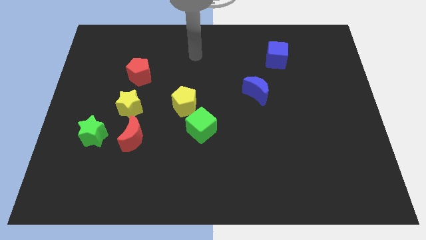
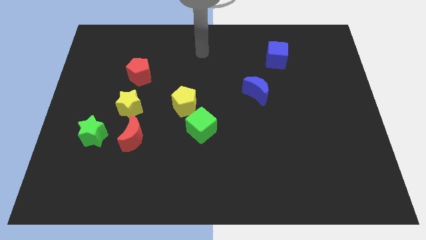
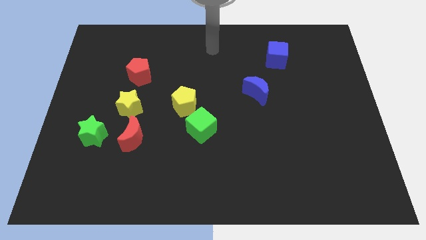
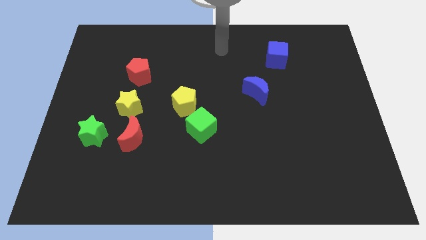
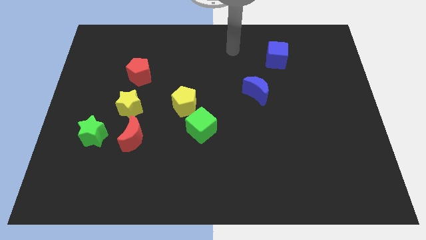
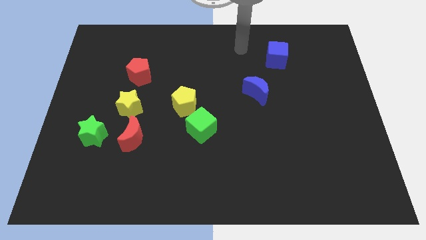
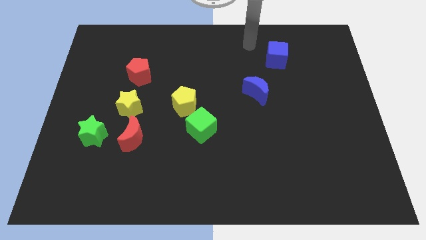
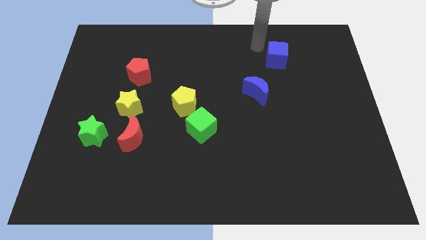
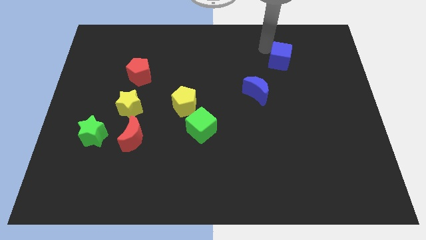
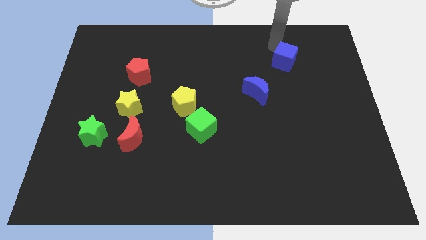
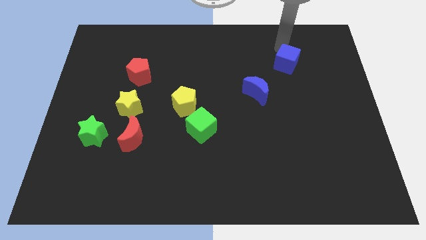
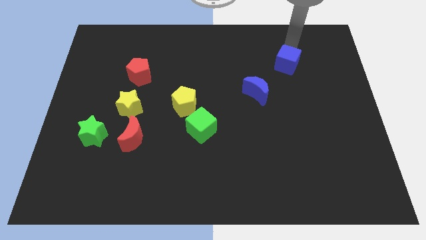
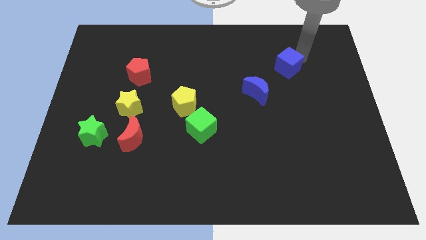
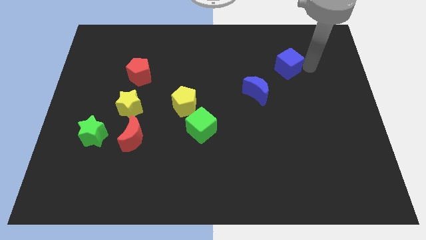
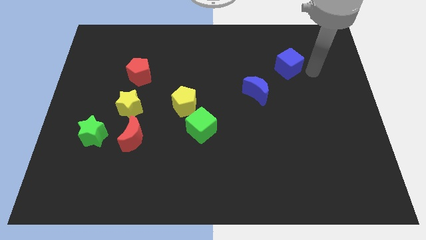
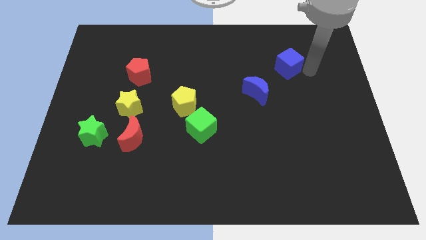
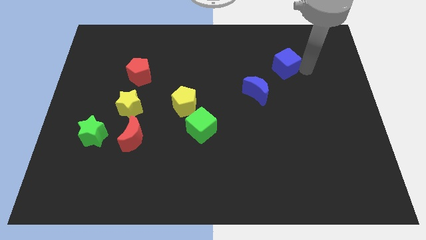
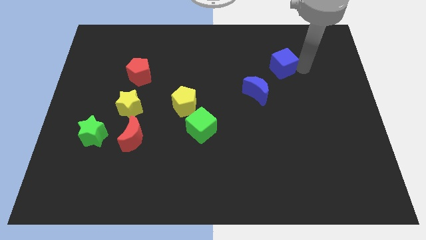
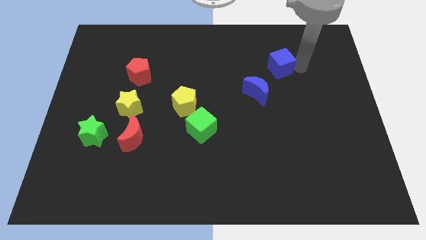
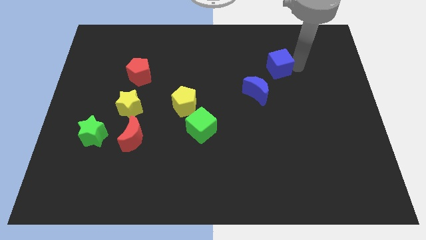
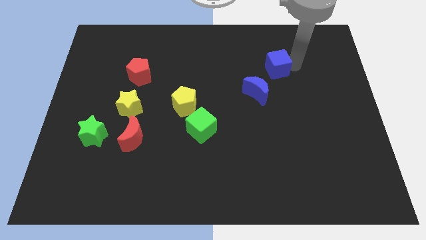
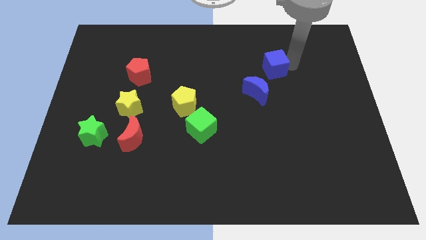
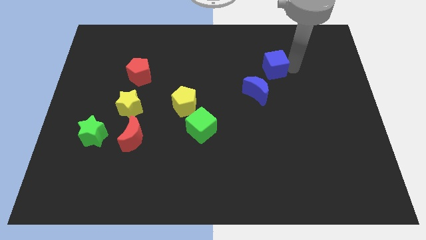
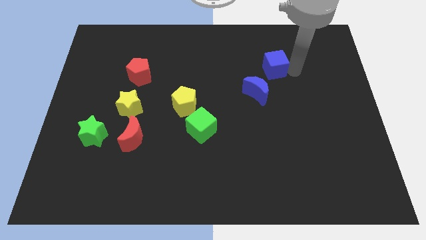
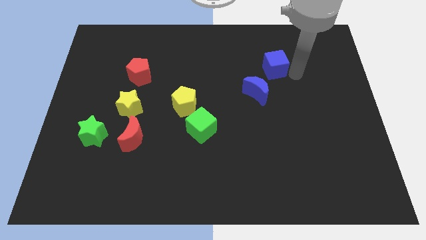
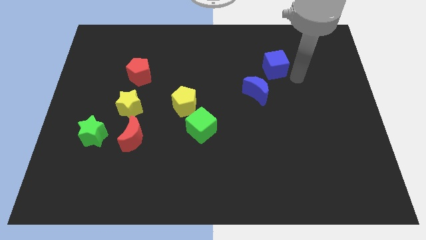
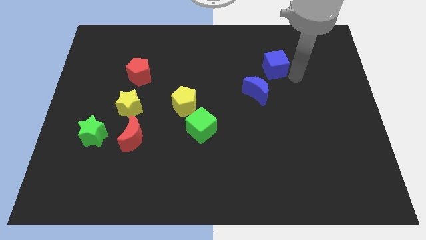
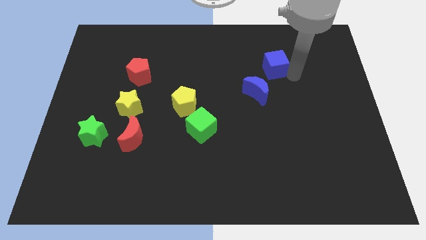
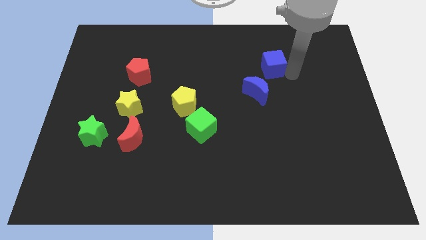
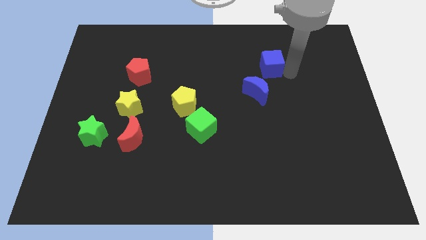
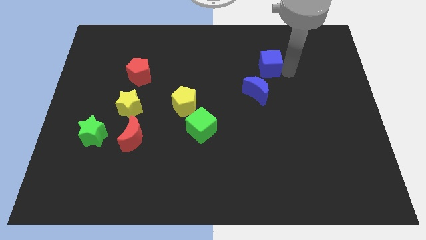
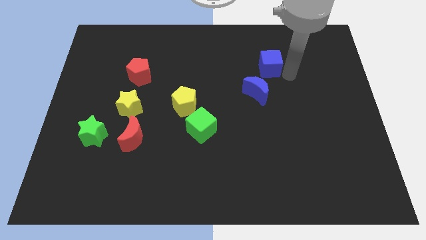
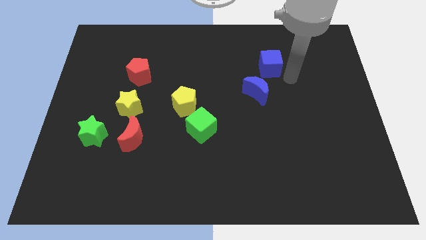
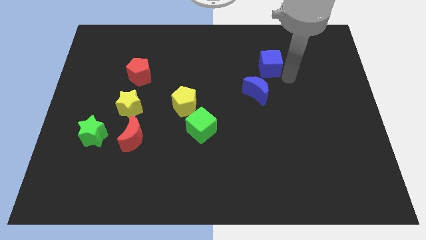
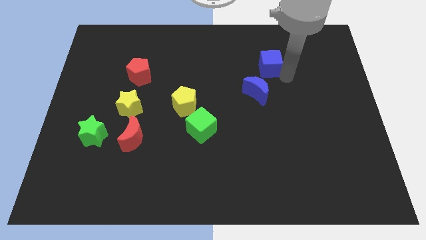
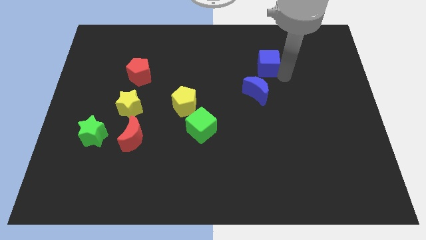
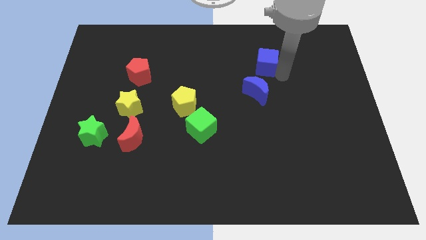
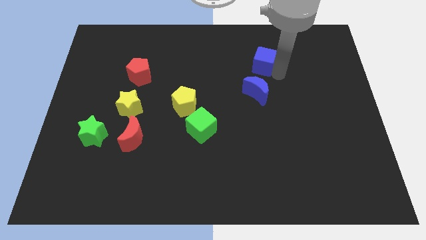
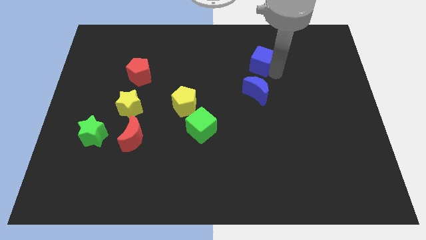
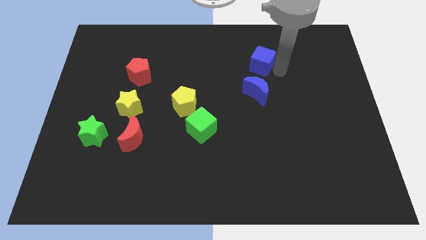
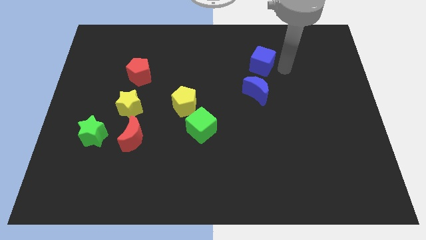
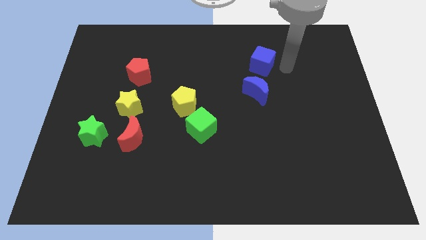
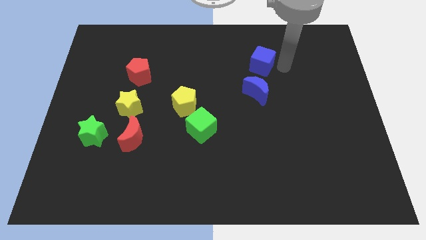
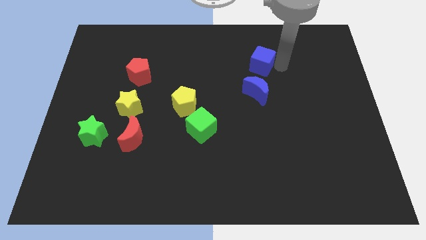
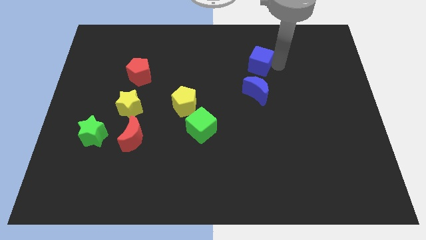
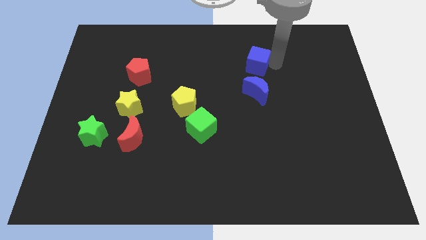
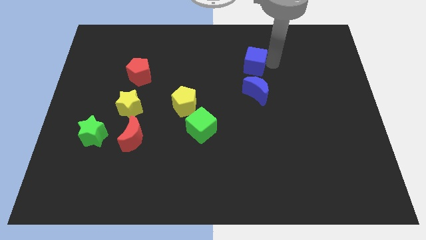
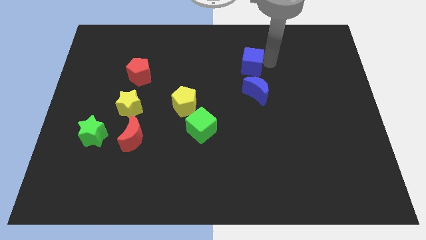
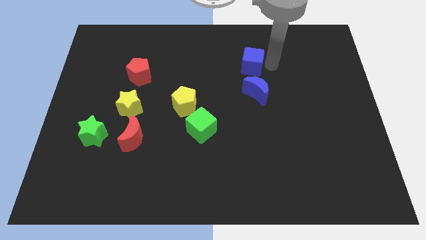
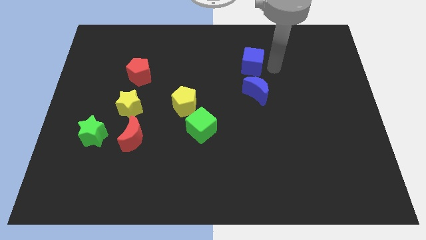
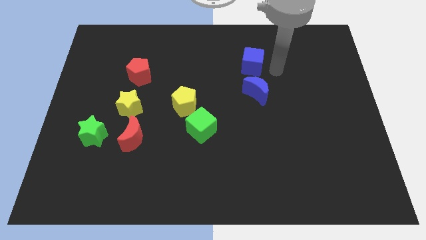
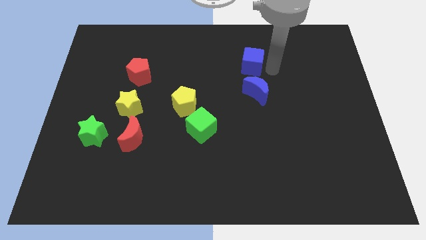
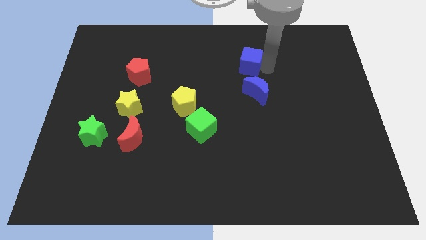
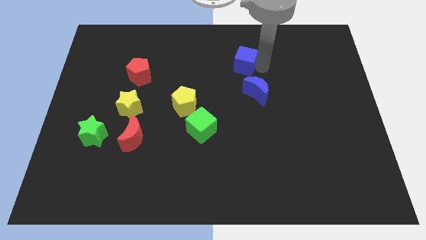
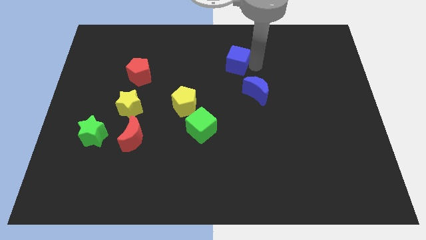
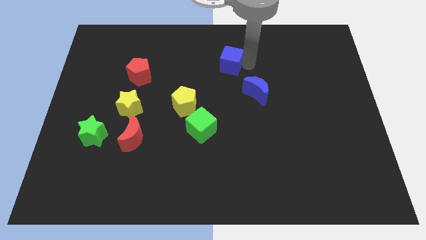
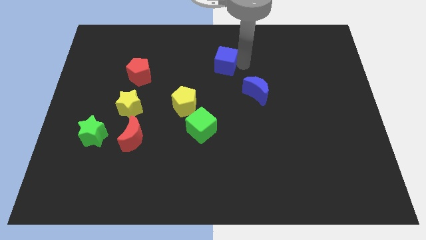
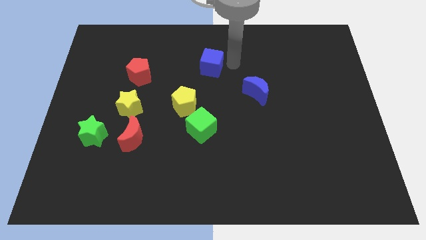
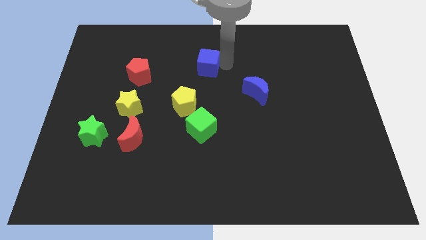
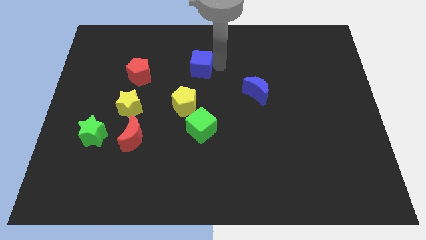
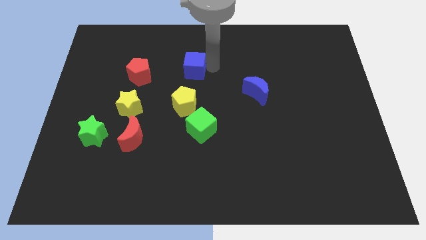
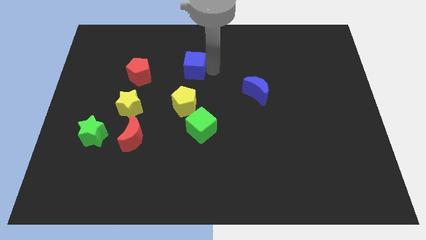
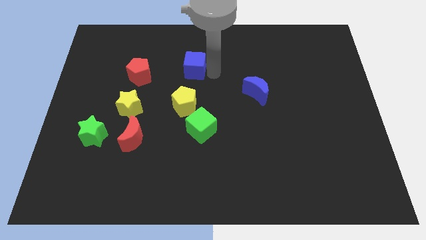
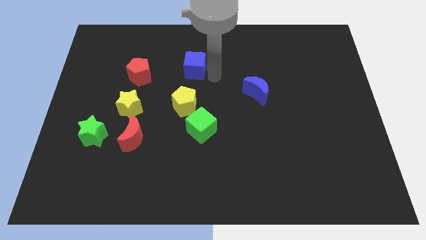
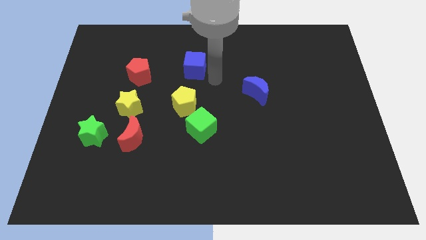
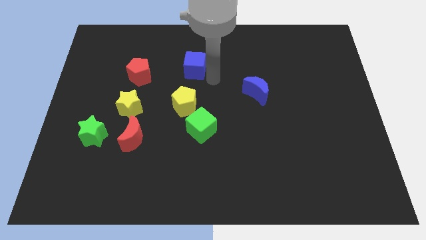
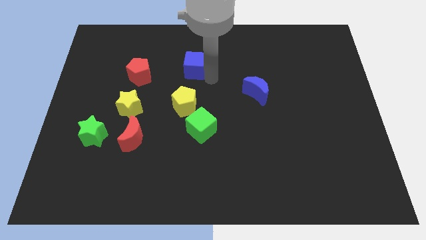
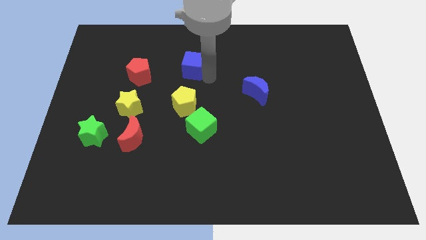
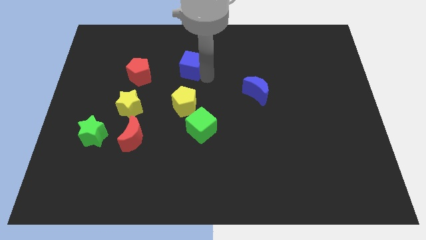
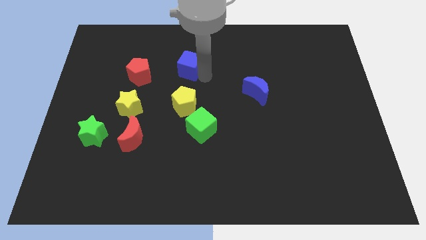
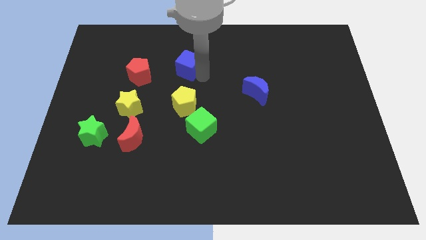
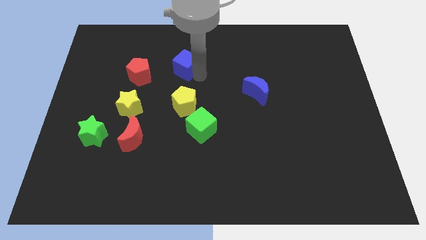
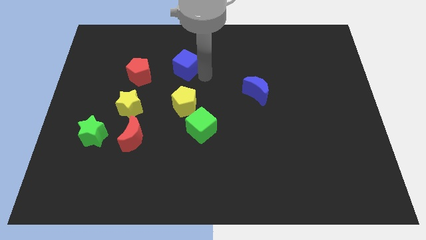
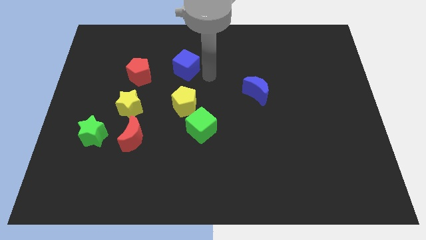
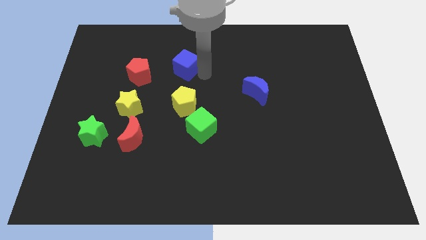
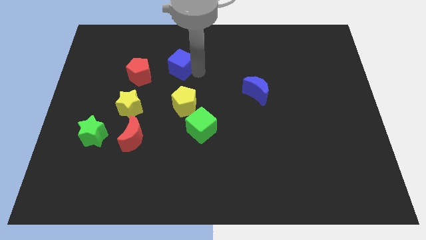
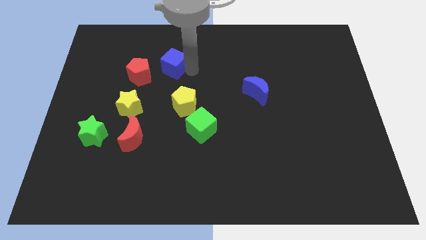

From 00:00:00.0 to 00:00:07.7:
put the blue cube to the top right side of the red pentagon
